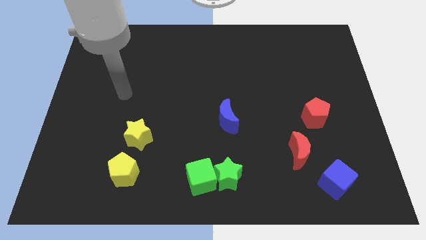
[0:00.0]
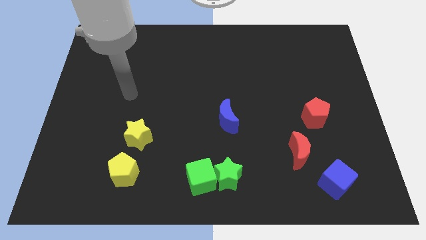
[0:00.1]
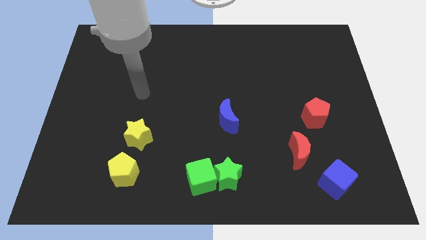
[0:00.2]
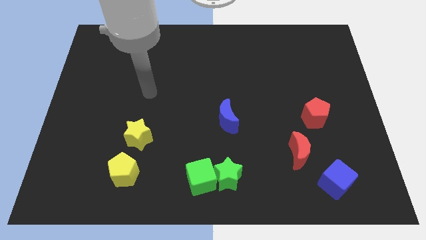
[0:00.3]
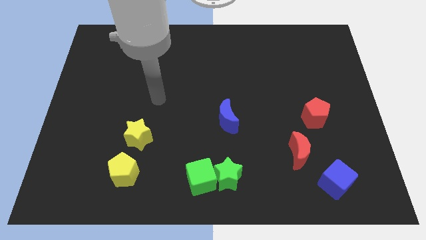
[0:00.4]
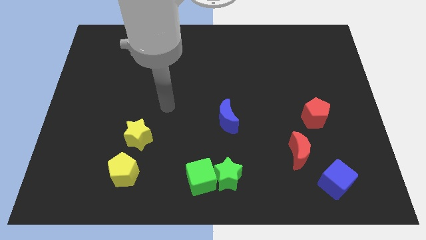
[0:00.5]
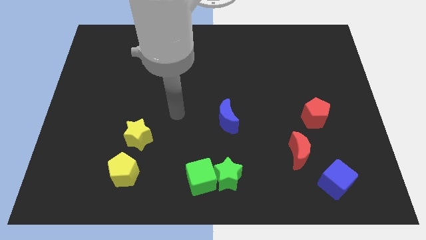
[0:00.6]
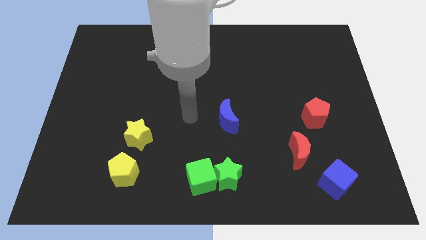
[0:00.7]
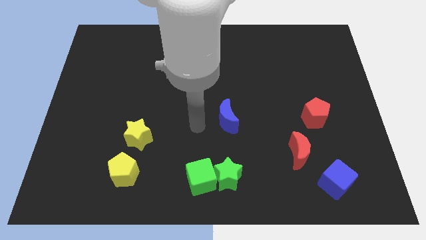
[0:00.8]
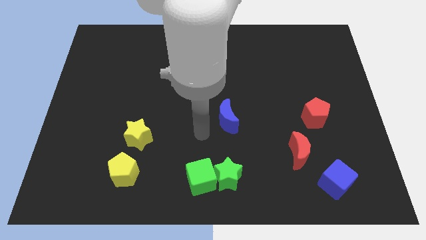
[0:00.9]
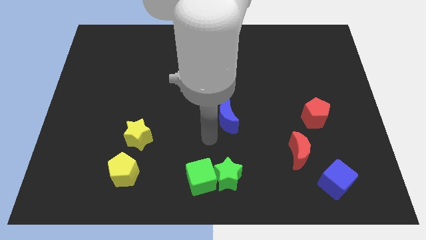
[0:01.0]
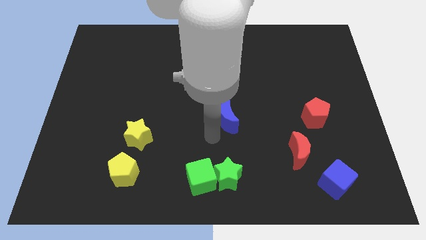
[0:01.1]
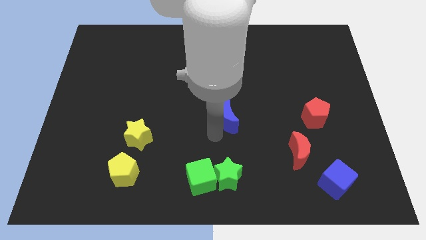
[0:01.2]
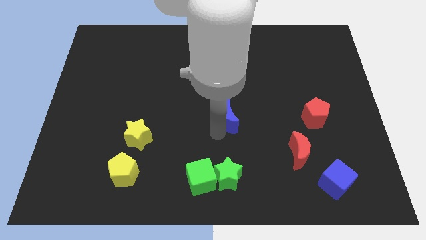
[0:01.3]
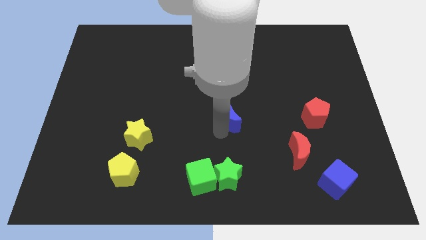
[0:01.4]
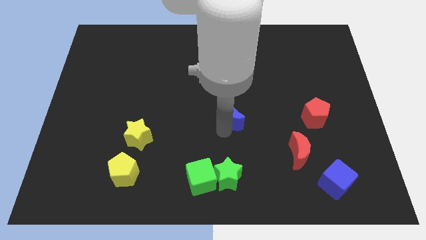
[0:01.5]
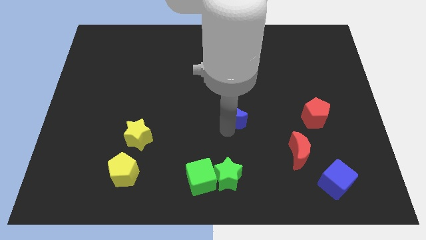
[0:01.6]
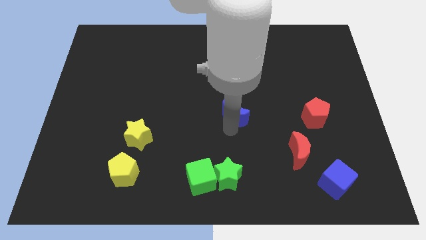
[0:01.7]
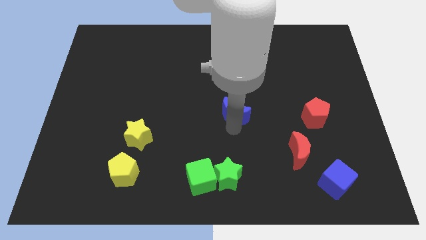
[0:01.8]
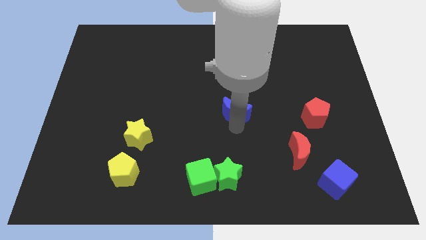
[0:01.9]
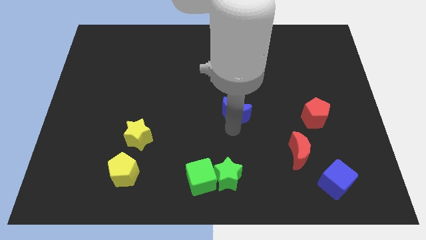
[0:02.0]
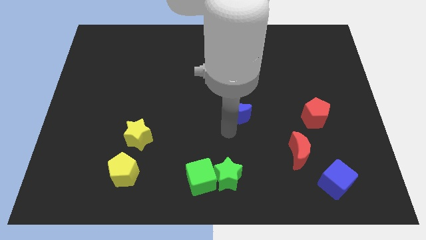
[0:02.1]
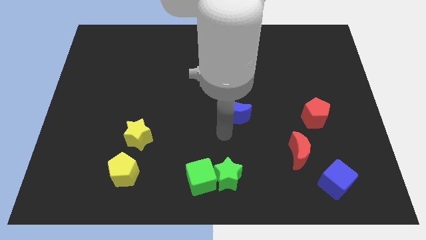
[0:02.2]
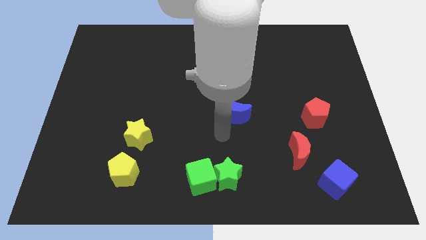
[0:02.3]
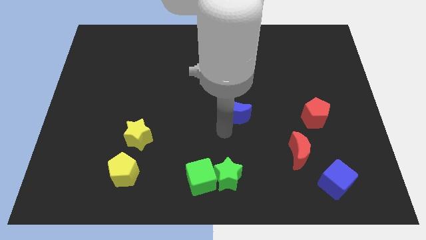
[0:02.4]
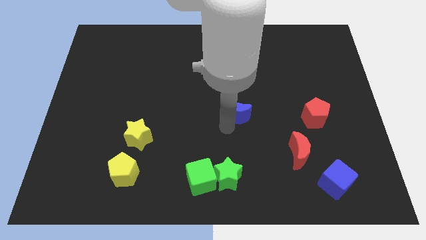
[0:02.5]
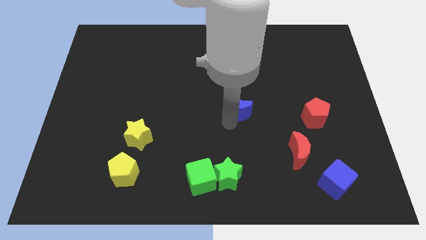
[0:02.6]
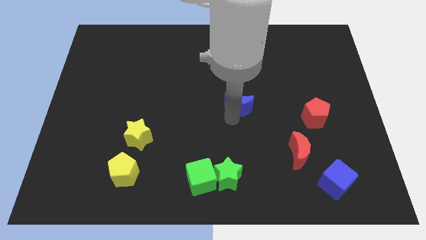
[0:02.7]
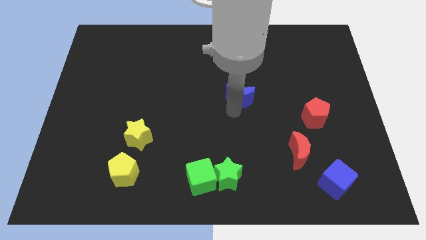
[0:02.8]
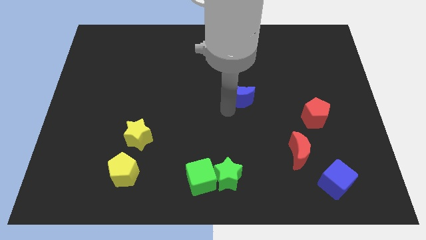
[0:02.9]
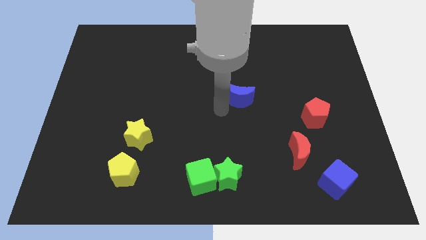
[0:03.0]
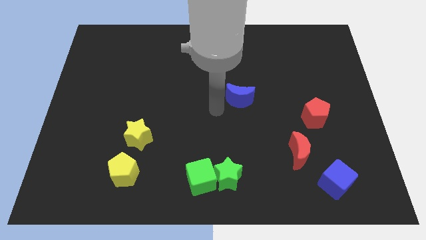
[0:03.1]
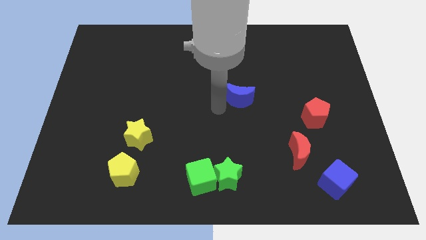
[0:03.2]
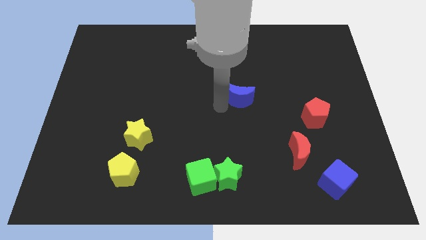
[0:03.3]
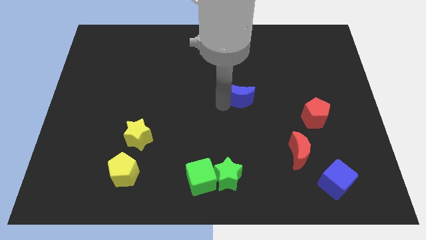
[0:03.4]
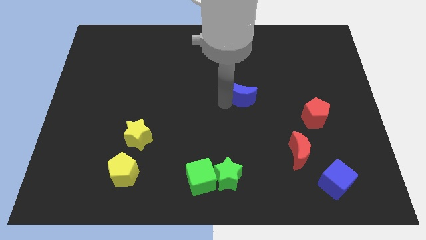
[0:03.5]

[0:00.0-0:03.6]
move the blue moon a little bit diagonally up and right

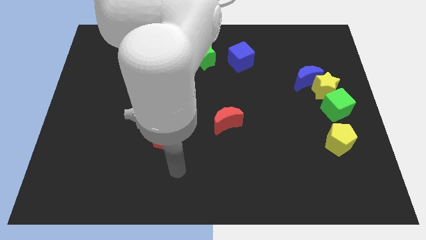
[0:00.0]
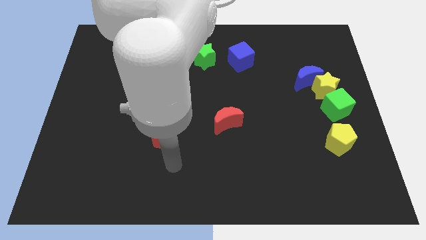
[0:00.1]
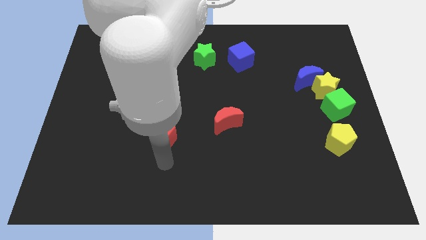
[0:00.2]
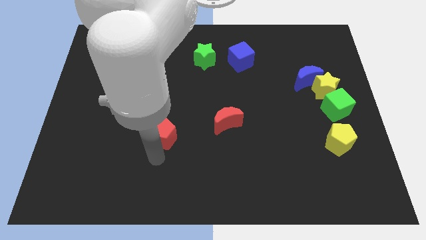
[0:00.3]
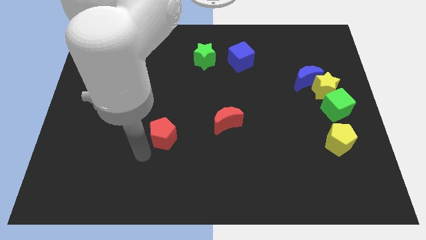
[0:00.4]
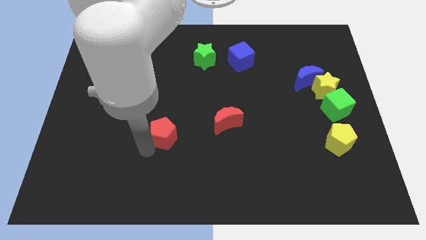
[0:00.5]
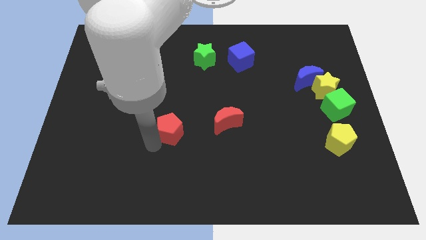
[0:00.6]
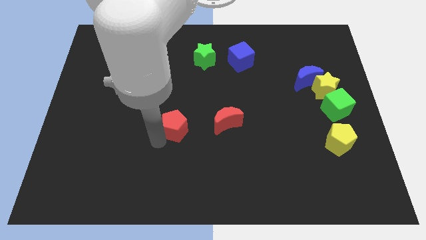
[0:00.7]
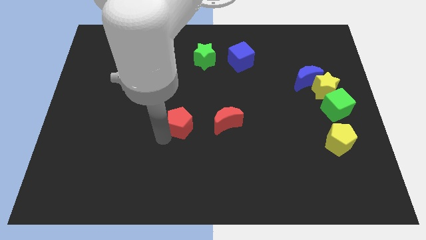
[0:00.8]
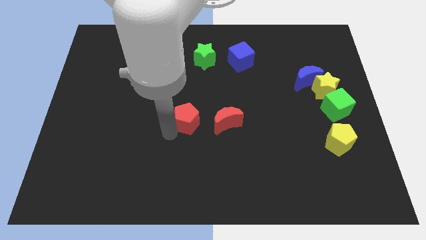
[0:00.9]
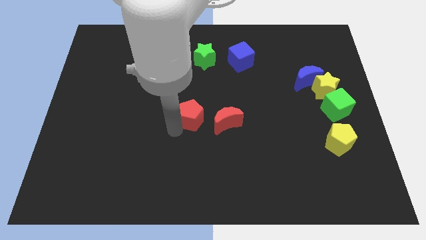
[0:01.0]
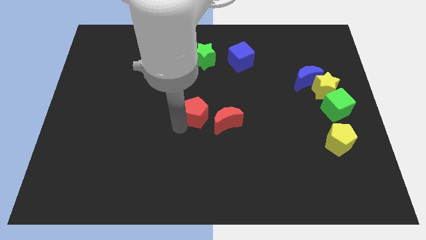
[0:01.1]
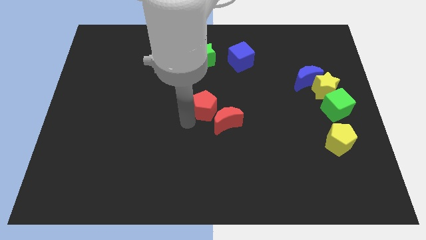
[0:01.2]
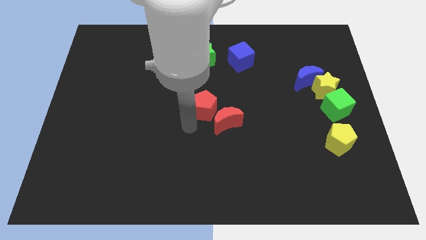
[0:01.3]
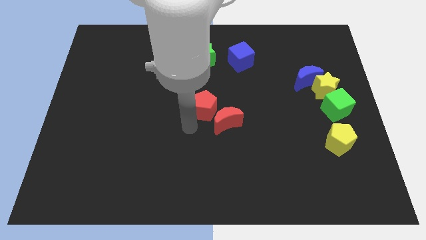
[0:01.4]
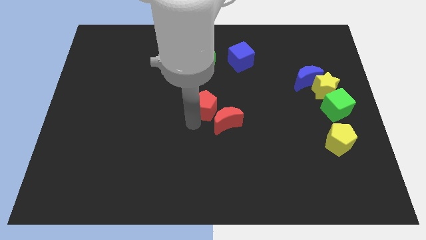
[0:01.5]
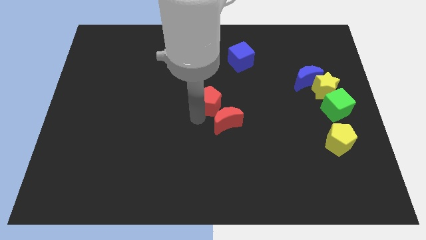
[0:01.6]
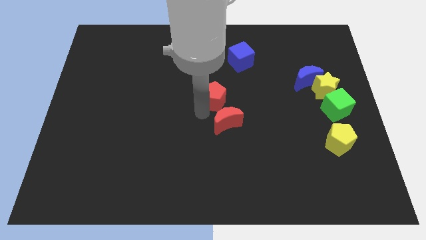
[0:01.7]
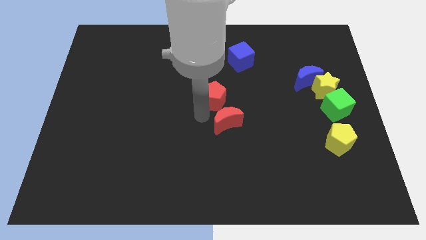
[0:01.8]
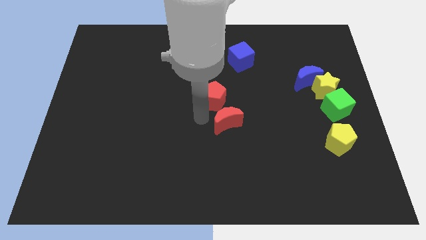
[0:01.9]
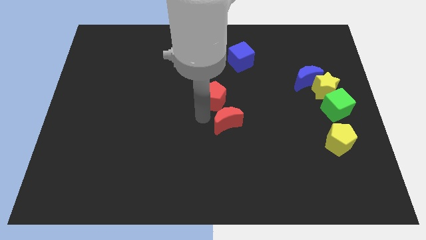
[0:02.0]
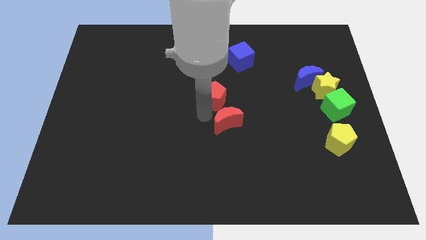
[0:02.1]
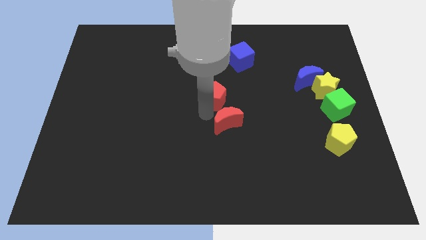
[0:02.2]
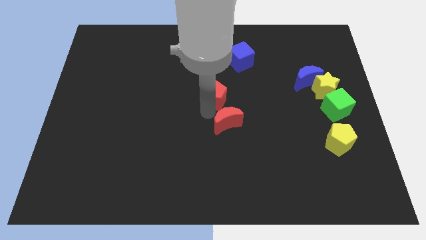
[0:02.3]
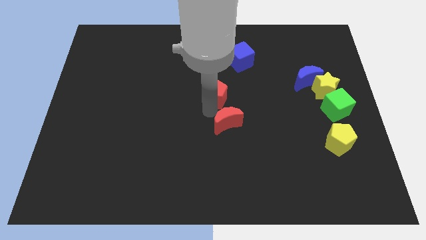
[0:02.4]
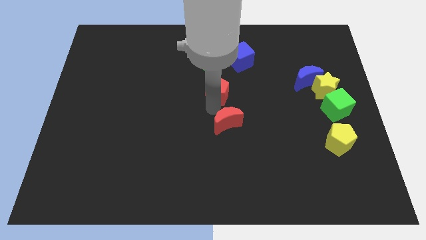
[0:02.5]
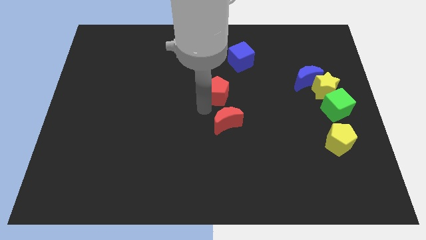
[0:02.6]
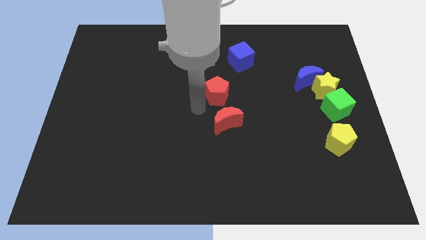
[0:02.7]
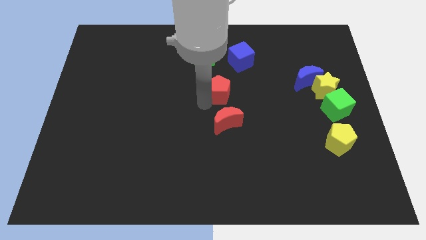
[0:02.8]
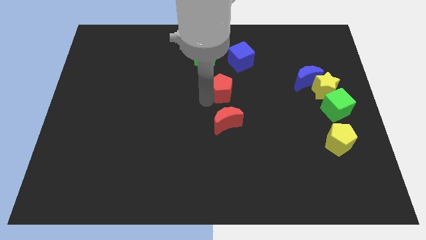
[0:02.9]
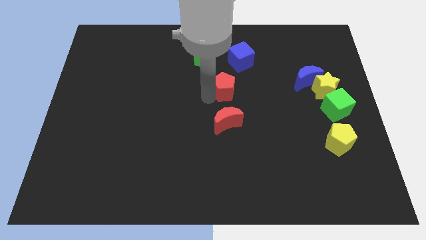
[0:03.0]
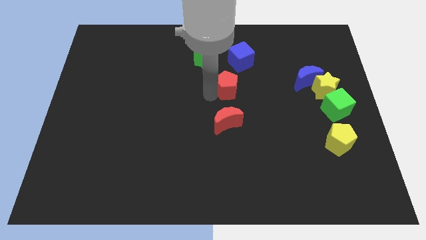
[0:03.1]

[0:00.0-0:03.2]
move the red pentagon diagonally up and to the right

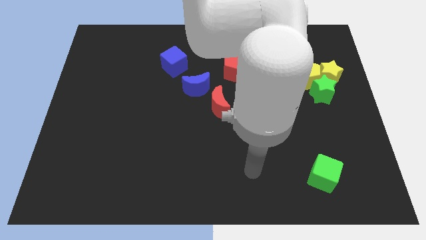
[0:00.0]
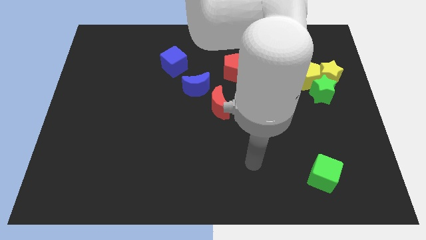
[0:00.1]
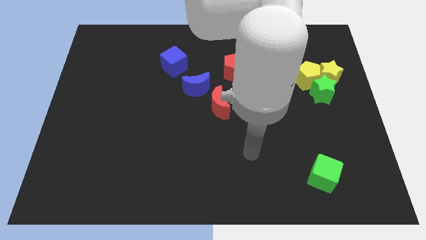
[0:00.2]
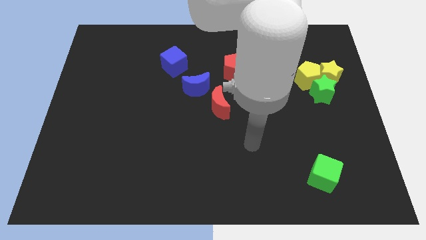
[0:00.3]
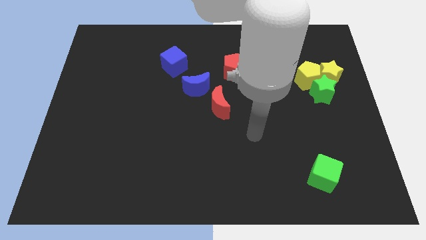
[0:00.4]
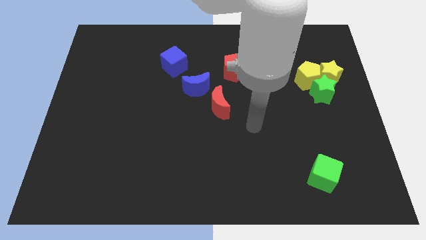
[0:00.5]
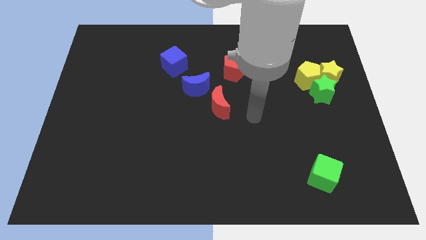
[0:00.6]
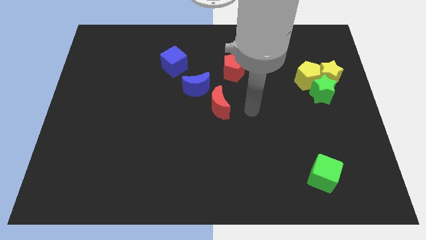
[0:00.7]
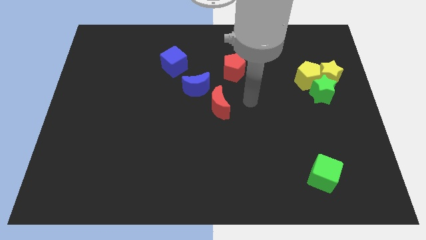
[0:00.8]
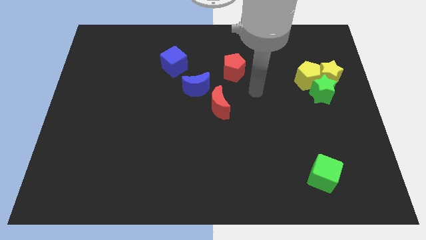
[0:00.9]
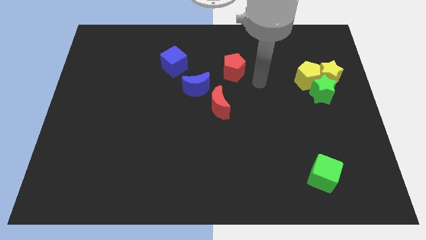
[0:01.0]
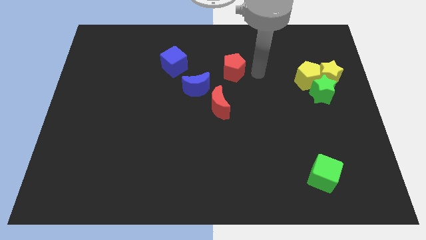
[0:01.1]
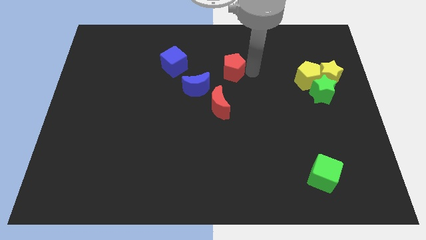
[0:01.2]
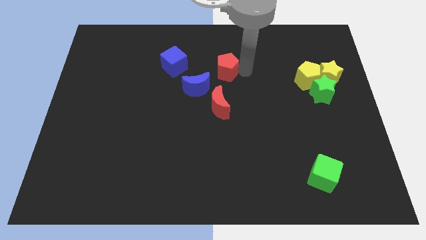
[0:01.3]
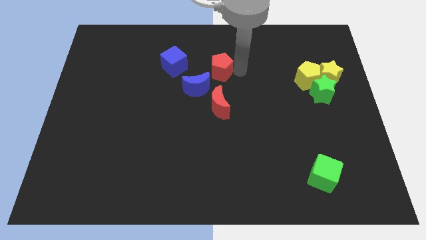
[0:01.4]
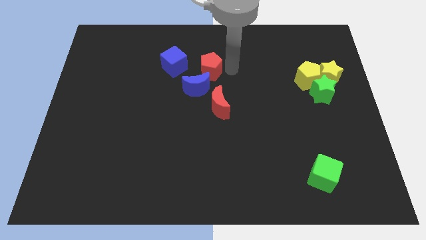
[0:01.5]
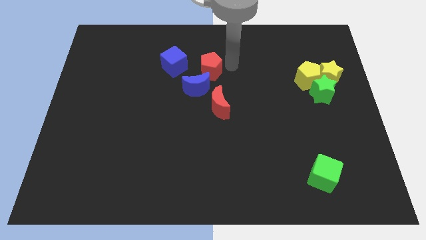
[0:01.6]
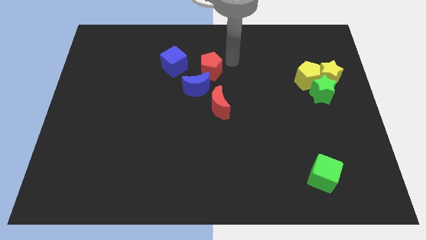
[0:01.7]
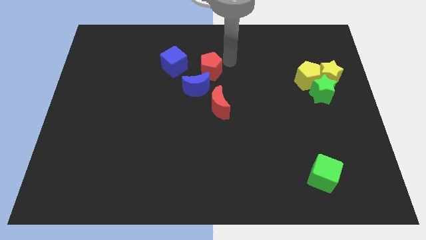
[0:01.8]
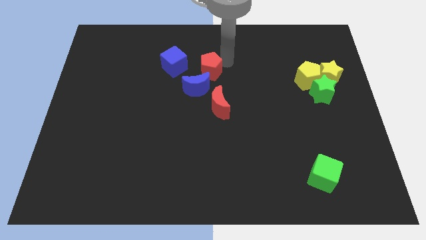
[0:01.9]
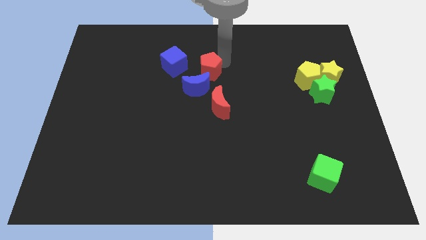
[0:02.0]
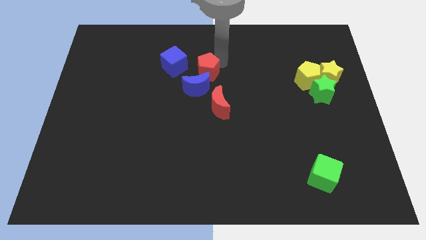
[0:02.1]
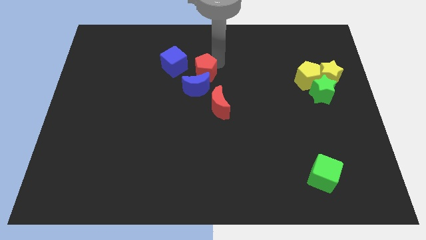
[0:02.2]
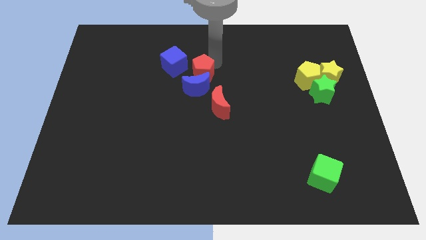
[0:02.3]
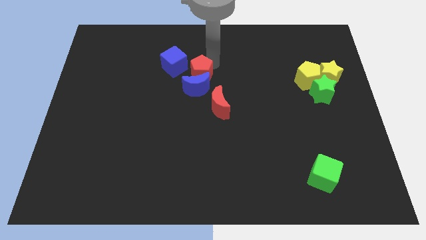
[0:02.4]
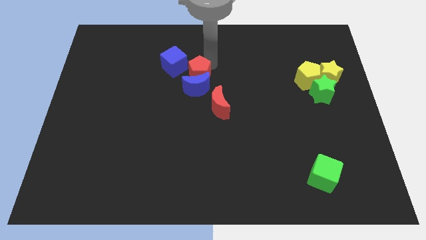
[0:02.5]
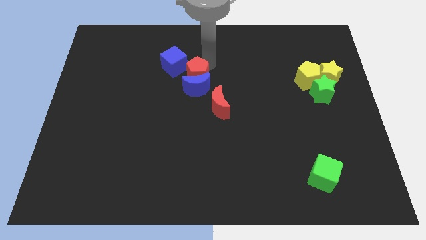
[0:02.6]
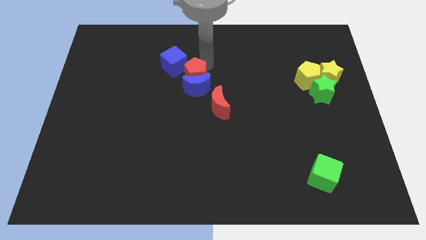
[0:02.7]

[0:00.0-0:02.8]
slightly move the red pentagon down and then left
